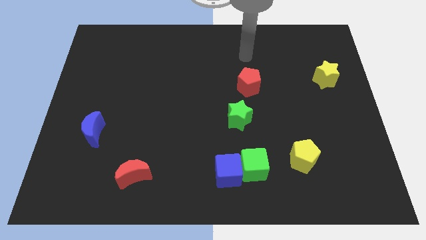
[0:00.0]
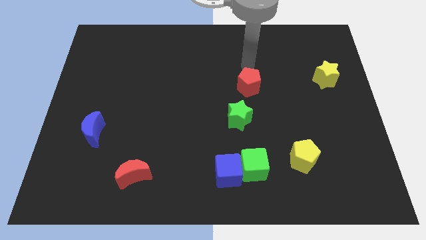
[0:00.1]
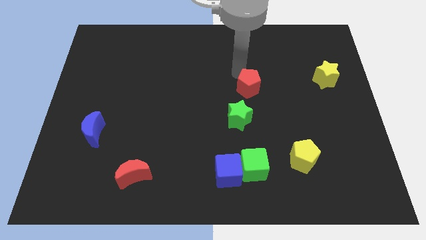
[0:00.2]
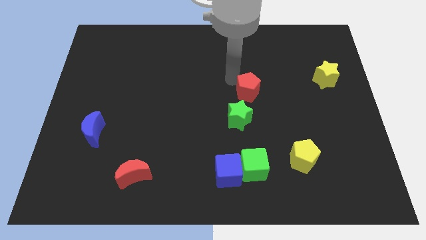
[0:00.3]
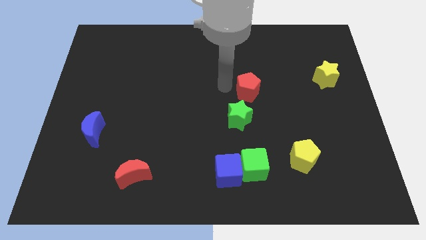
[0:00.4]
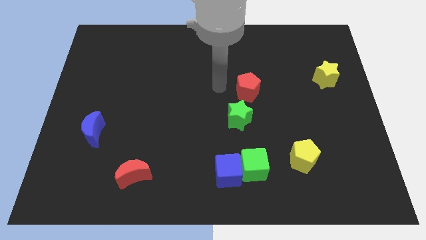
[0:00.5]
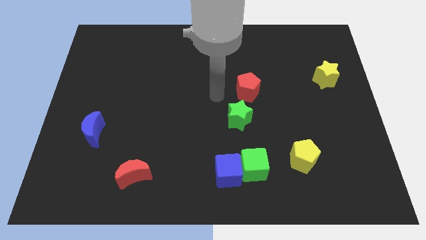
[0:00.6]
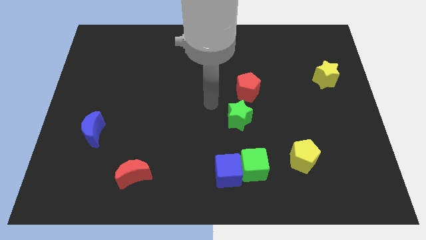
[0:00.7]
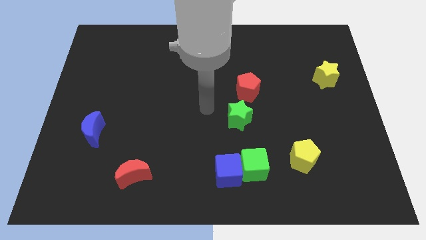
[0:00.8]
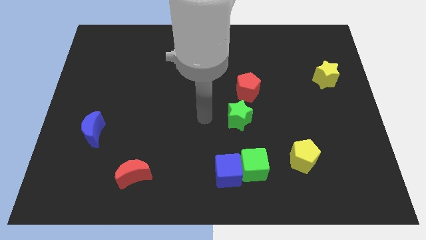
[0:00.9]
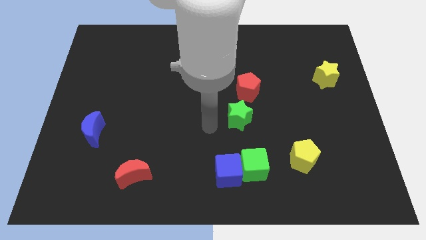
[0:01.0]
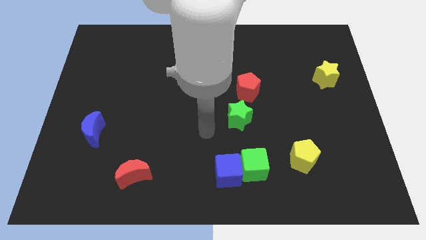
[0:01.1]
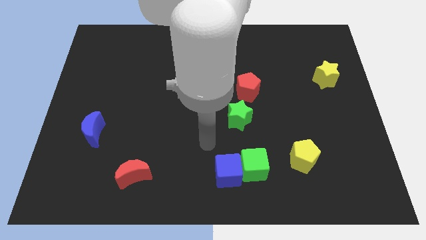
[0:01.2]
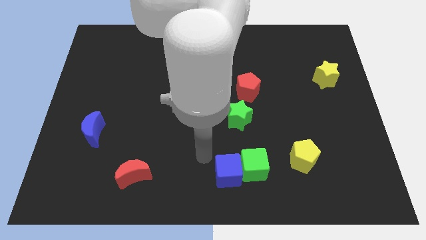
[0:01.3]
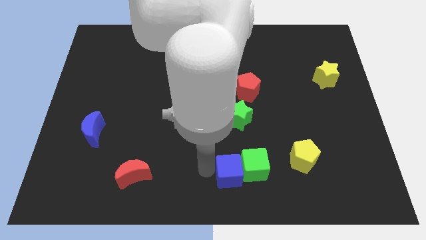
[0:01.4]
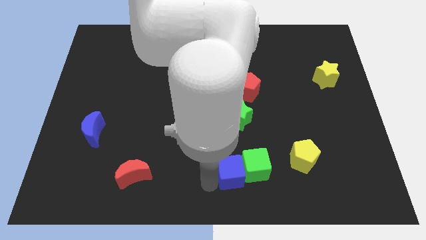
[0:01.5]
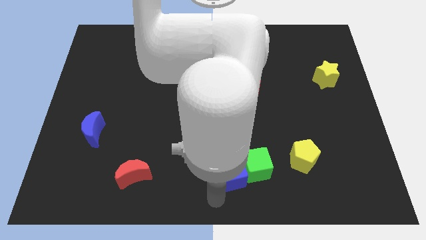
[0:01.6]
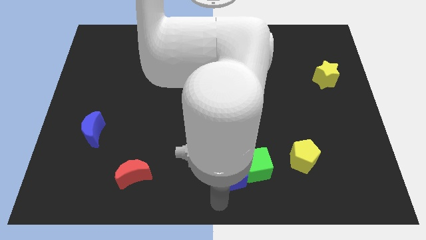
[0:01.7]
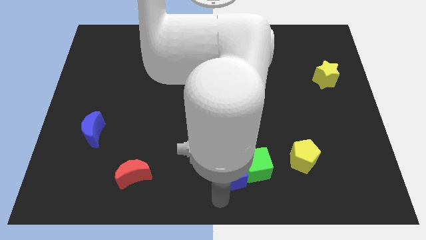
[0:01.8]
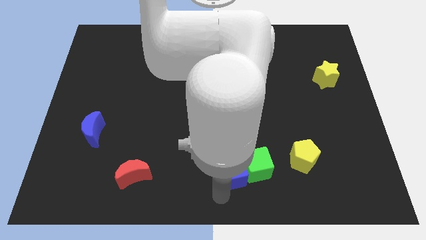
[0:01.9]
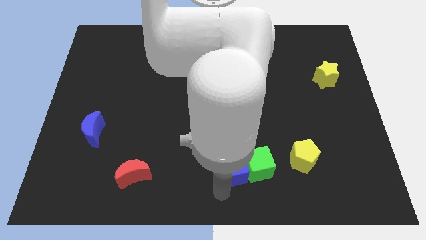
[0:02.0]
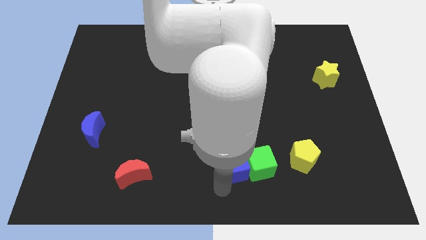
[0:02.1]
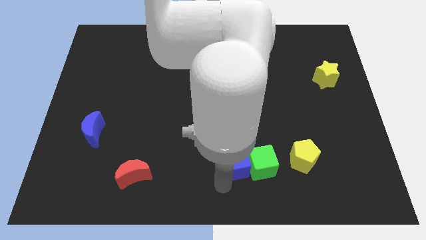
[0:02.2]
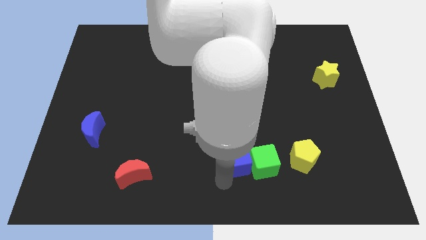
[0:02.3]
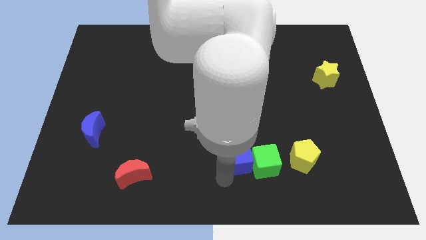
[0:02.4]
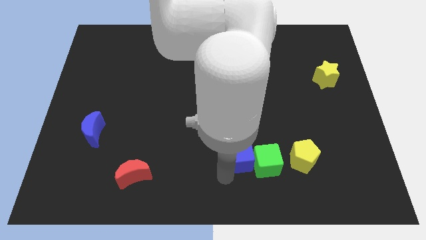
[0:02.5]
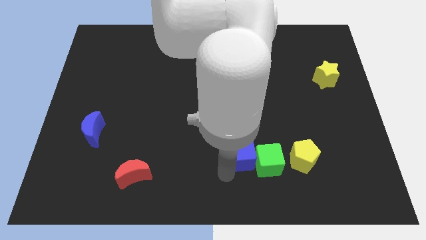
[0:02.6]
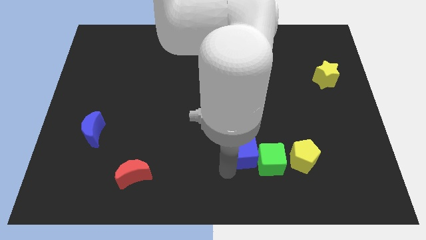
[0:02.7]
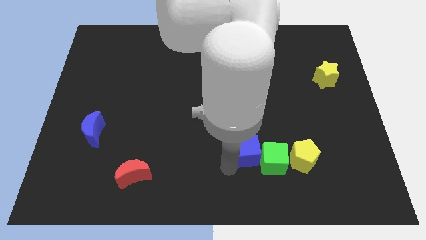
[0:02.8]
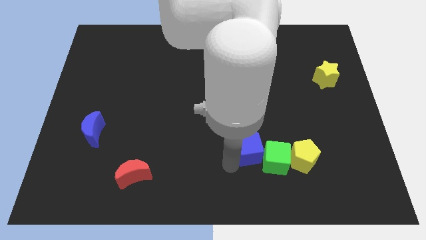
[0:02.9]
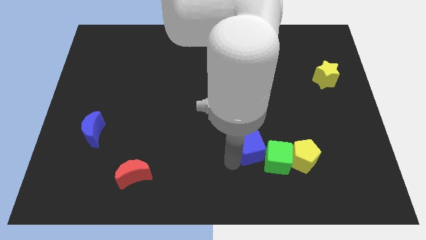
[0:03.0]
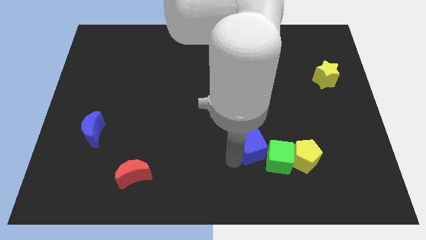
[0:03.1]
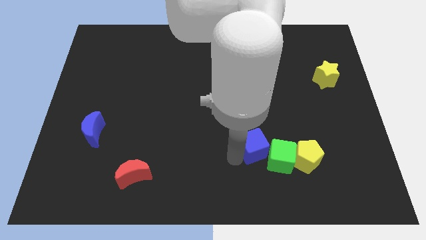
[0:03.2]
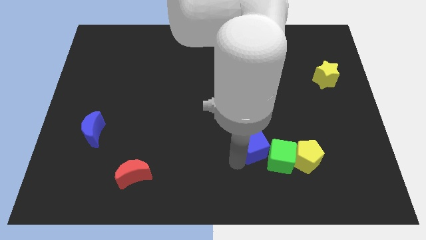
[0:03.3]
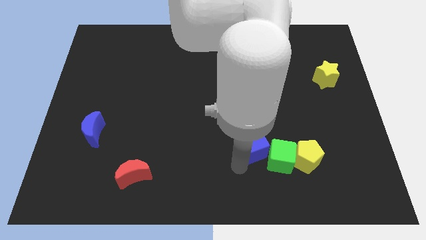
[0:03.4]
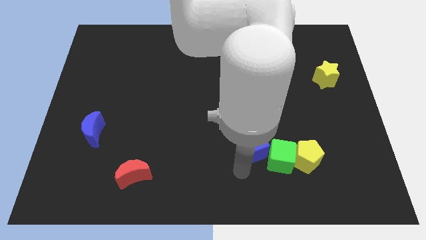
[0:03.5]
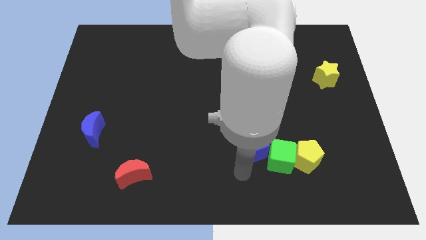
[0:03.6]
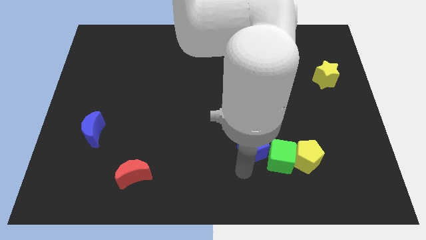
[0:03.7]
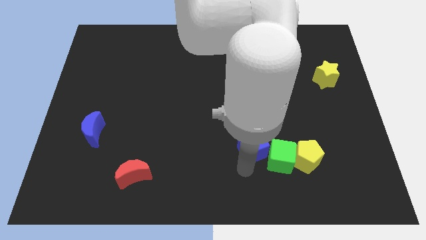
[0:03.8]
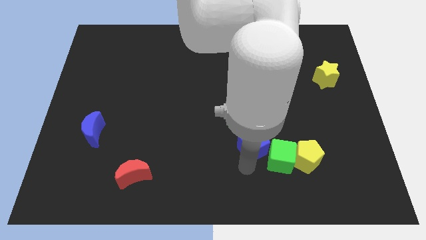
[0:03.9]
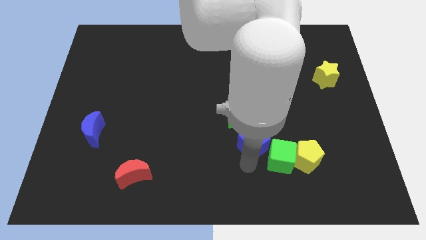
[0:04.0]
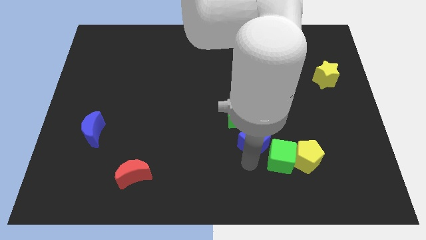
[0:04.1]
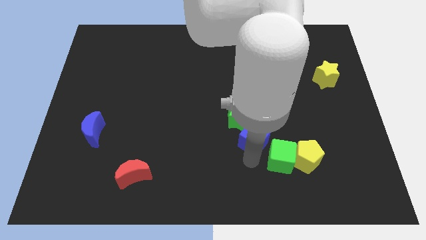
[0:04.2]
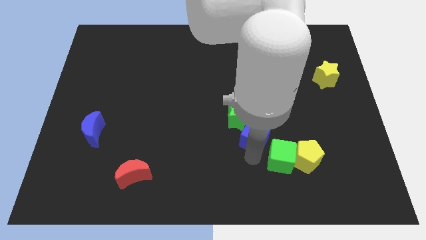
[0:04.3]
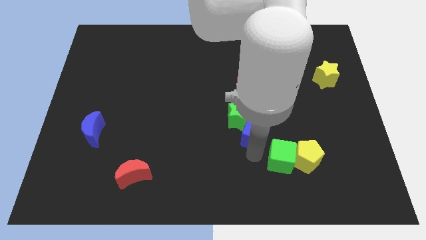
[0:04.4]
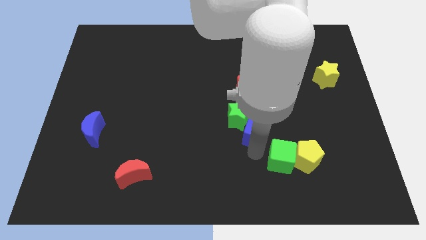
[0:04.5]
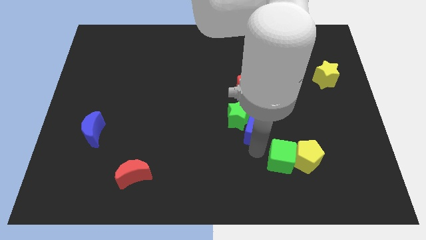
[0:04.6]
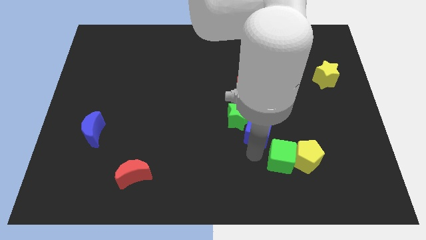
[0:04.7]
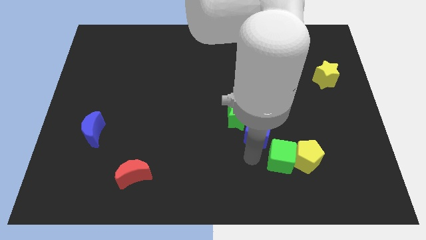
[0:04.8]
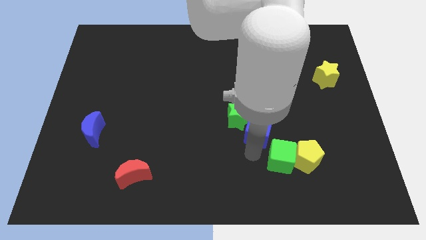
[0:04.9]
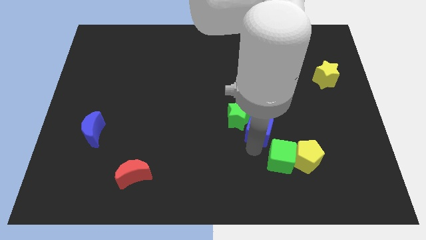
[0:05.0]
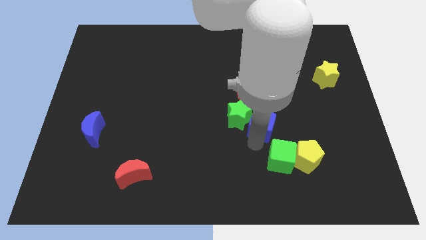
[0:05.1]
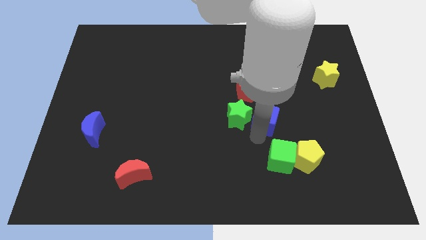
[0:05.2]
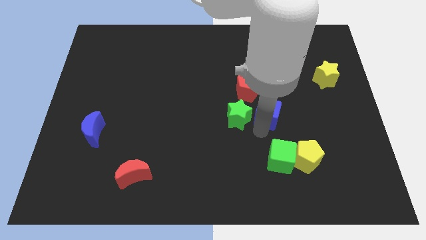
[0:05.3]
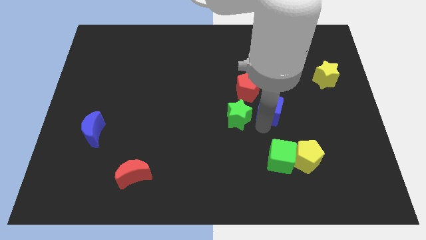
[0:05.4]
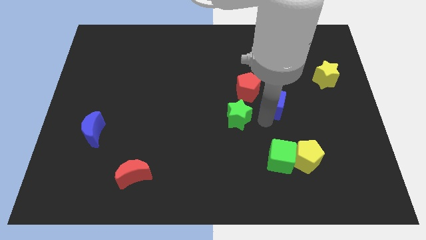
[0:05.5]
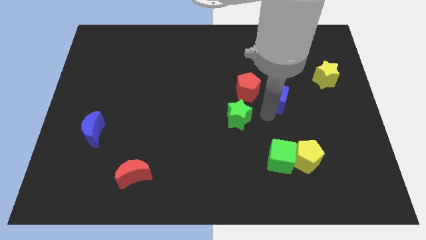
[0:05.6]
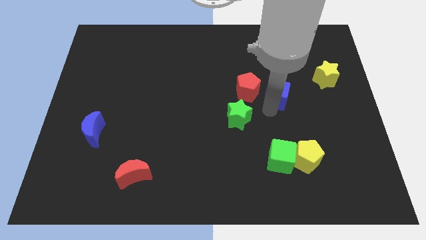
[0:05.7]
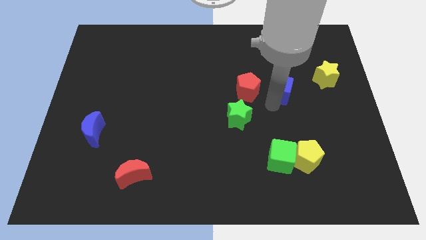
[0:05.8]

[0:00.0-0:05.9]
slide the blue cube left of the yellow star
